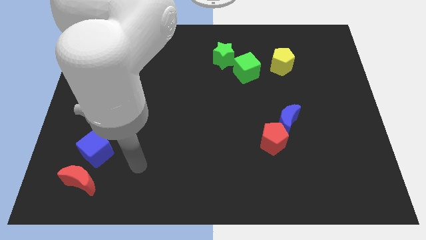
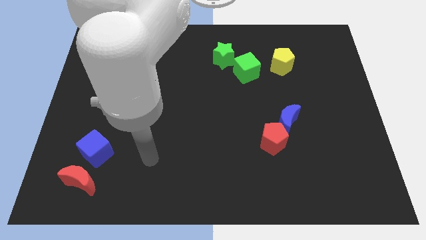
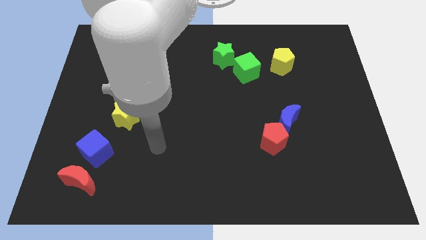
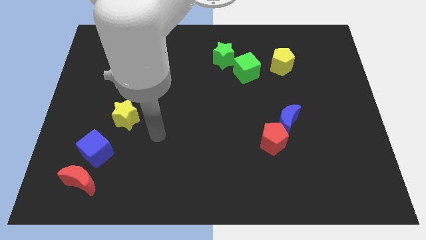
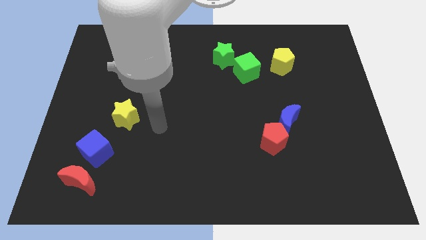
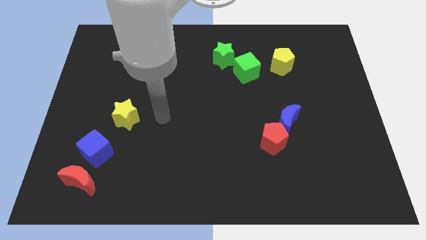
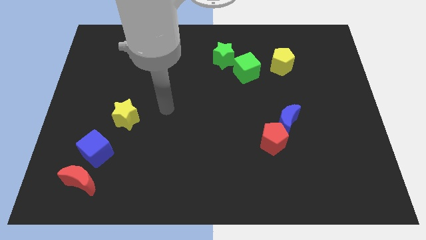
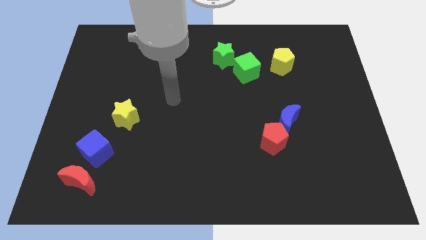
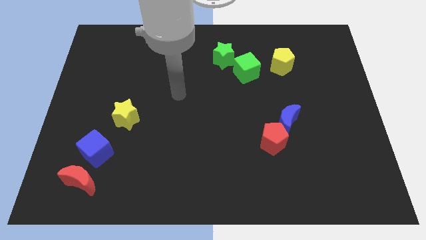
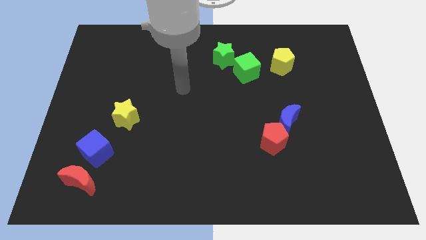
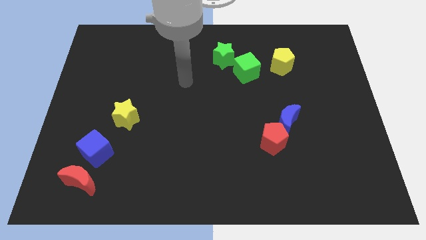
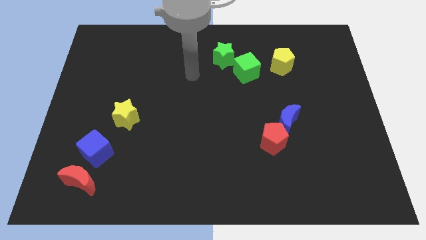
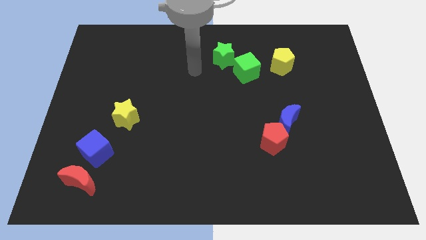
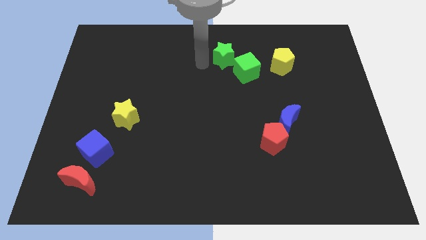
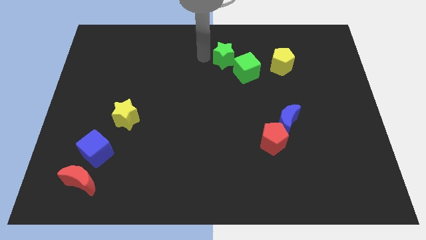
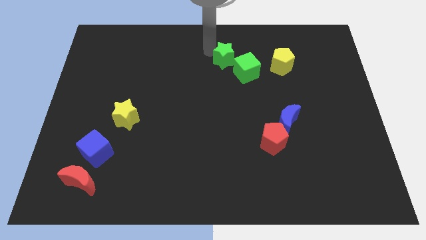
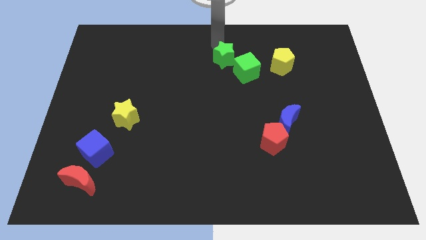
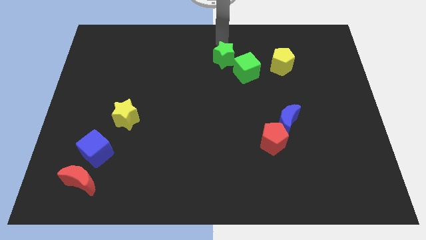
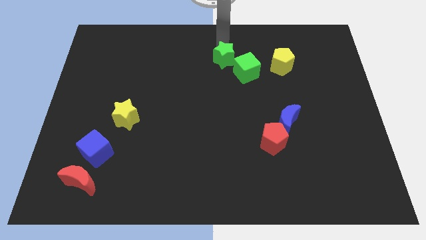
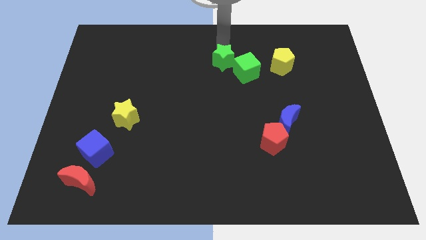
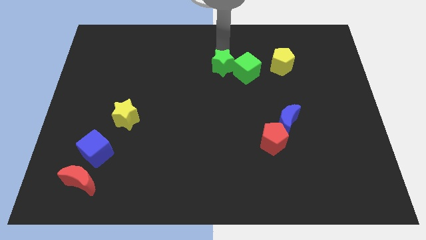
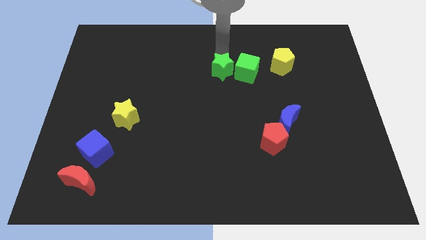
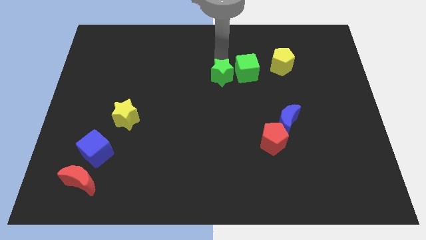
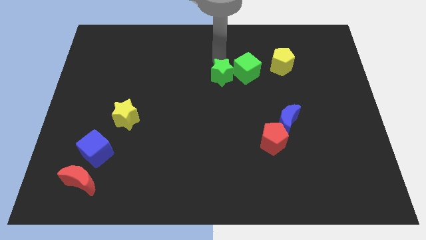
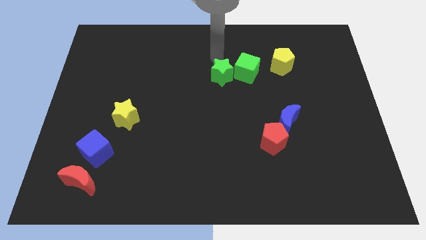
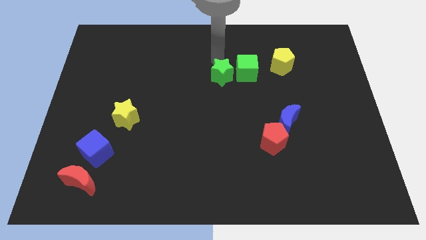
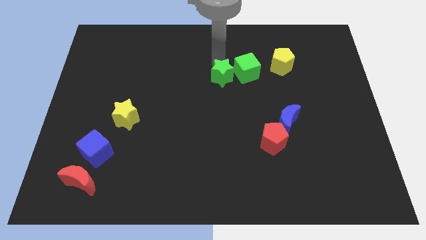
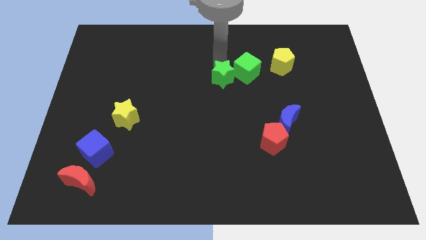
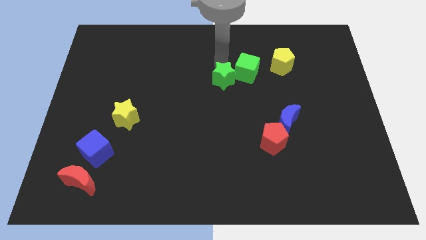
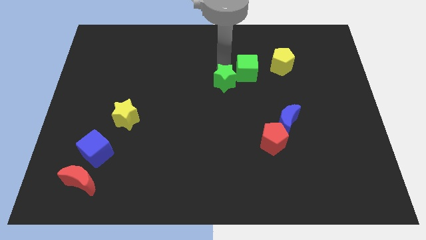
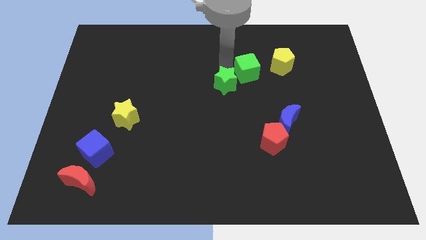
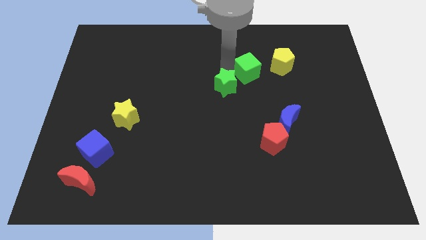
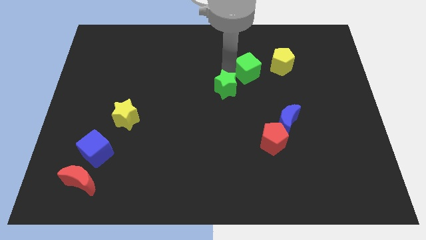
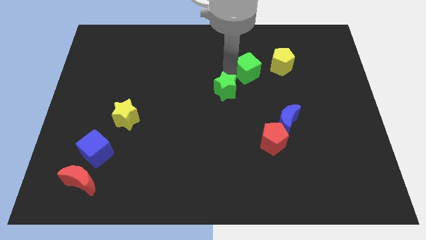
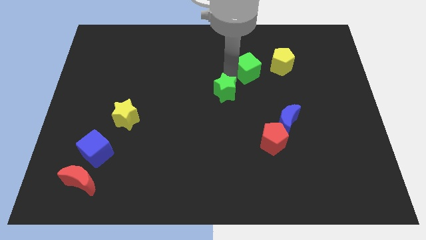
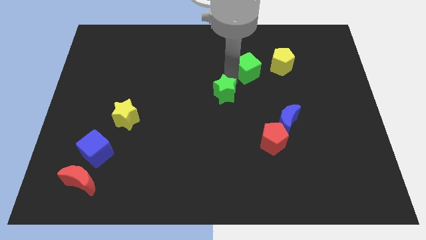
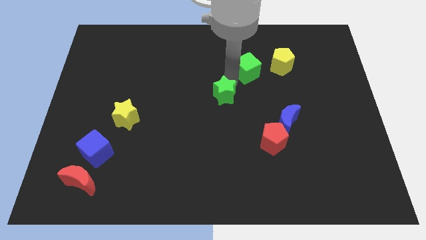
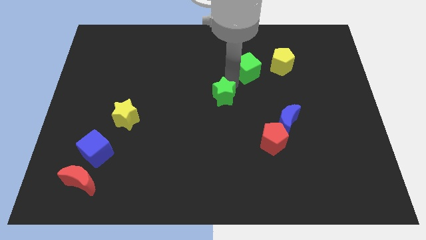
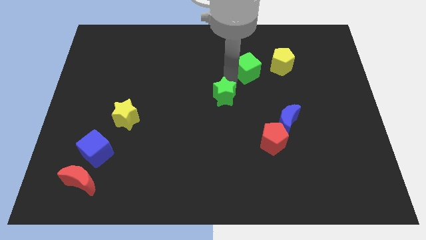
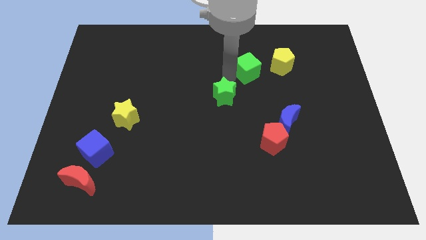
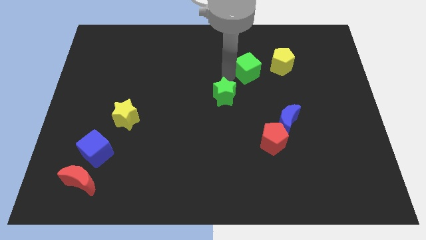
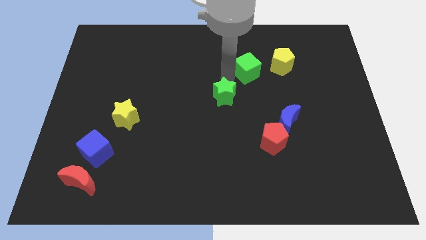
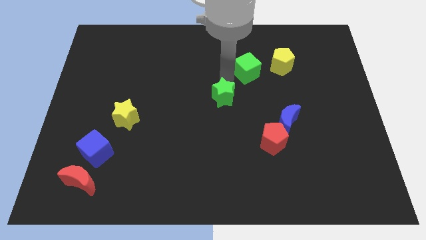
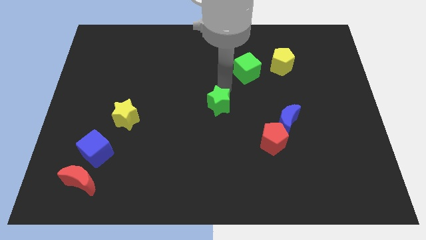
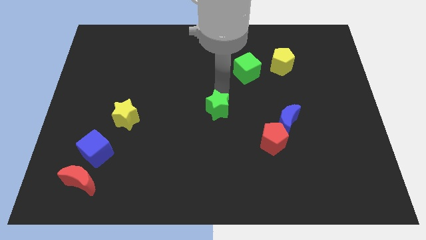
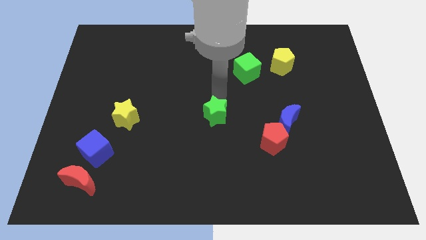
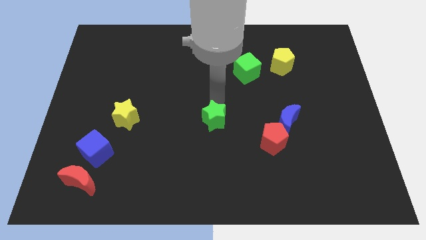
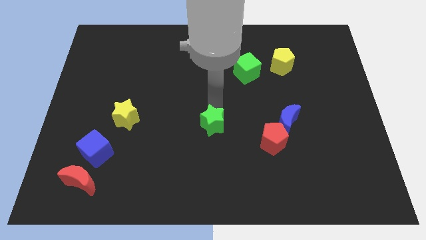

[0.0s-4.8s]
push the green star down

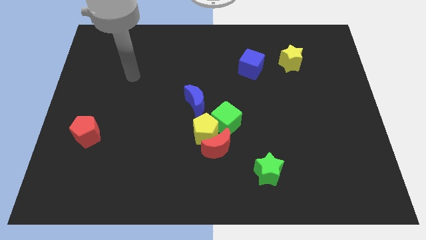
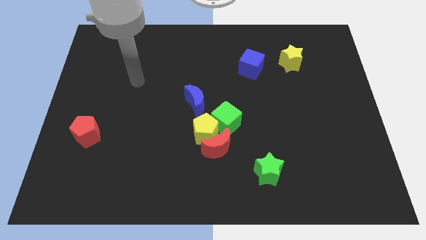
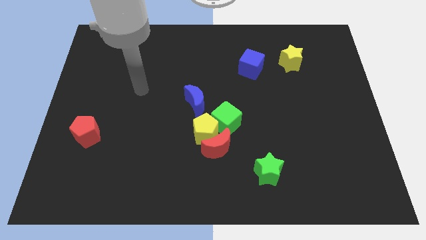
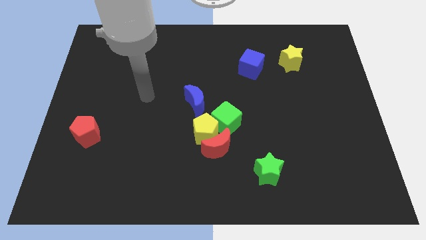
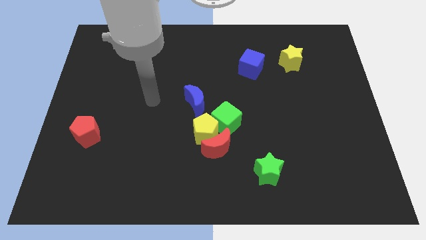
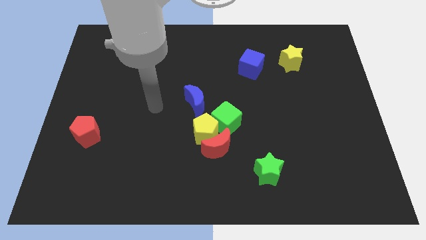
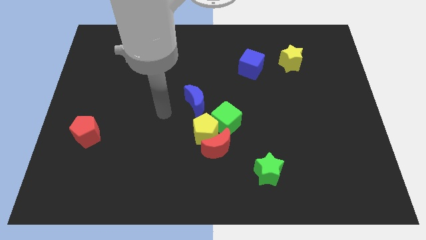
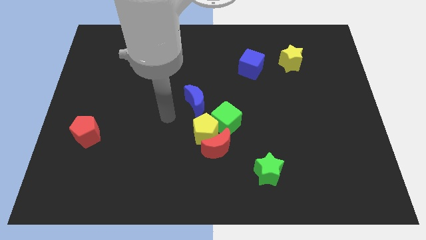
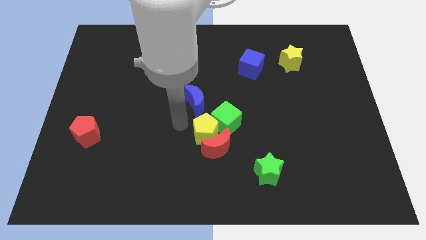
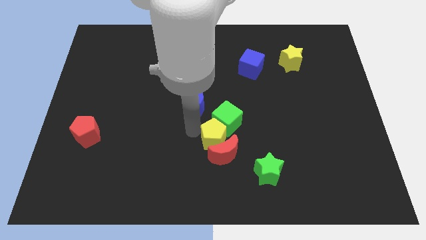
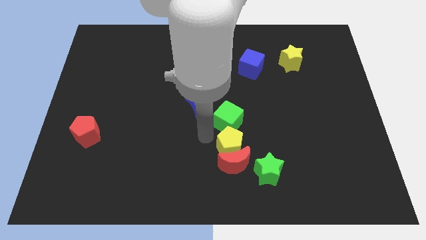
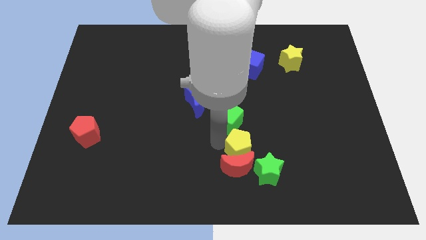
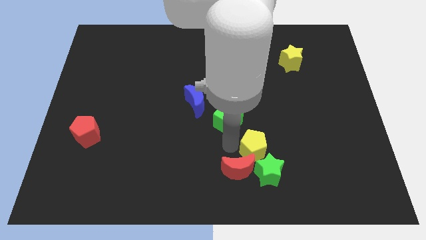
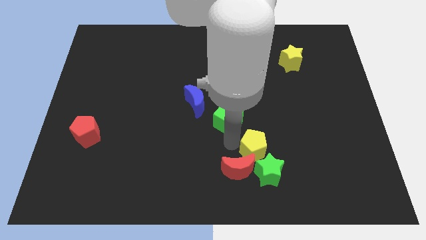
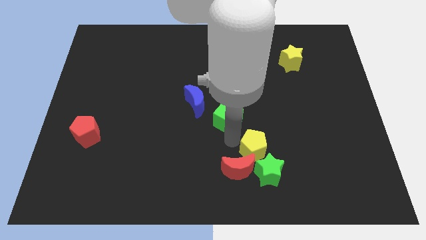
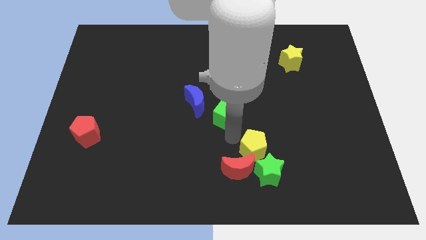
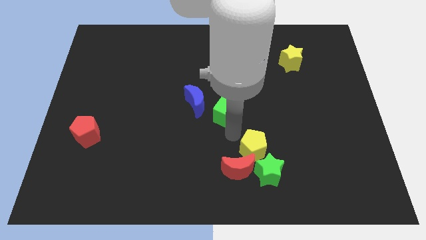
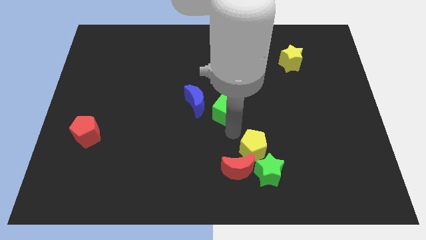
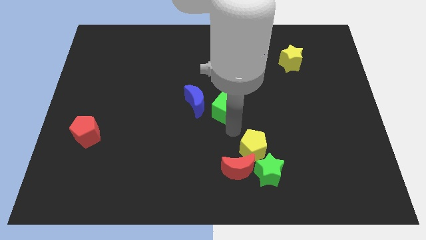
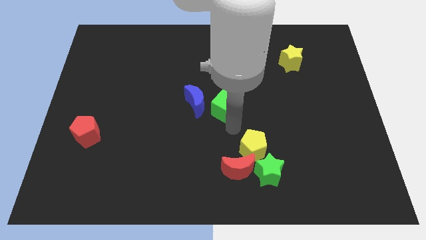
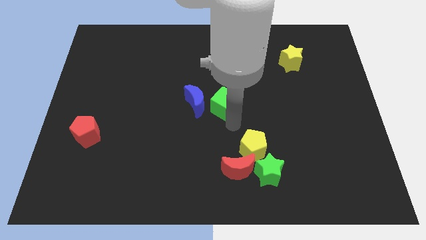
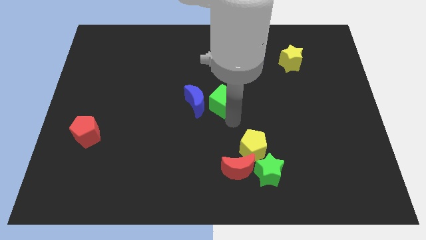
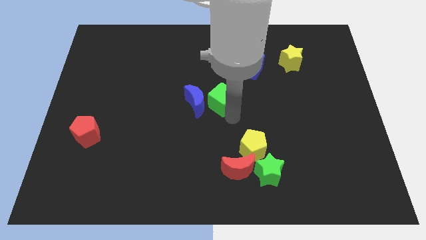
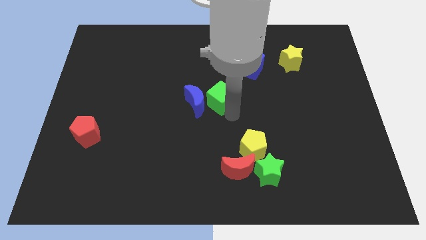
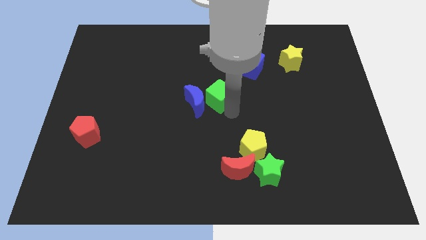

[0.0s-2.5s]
slightly move the green cube upwards

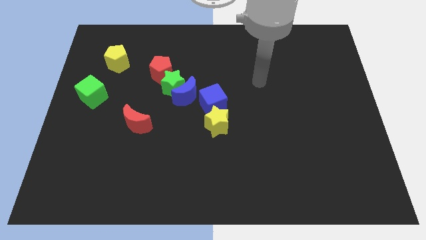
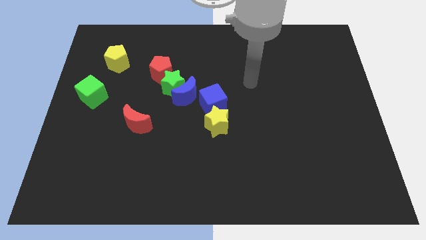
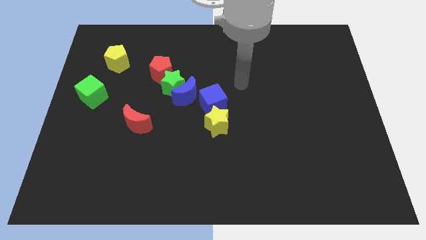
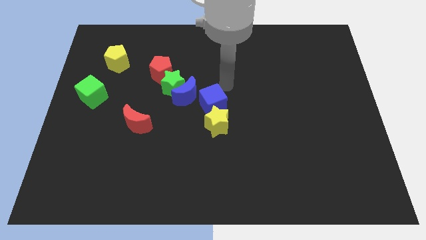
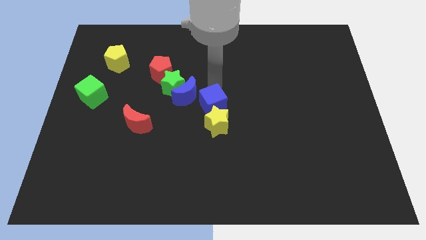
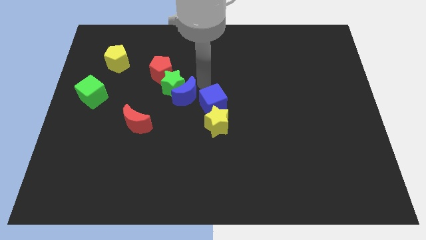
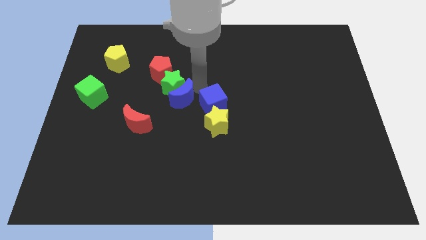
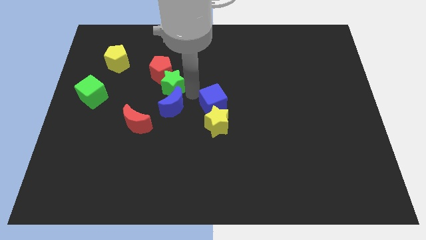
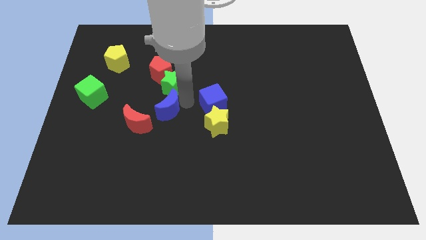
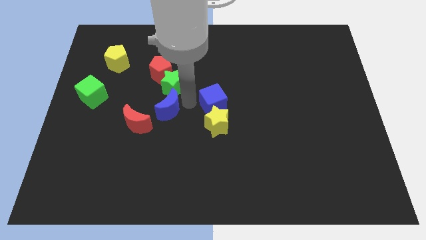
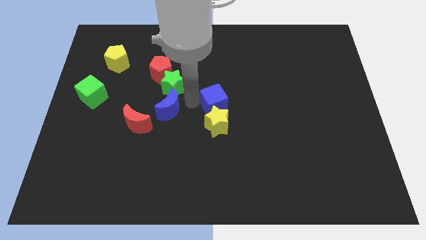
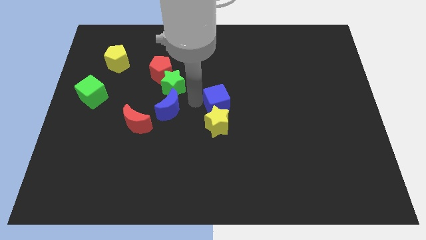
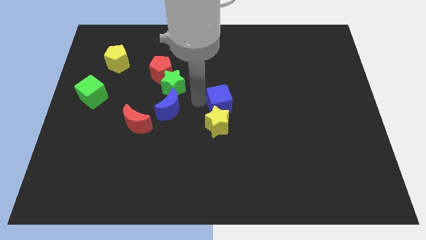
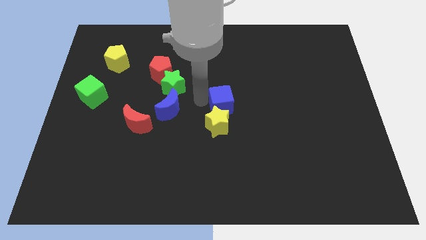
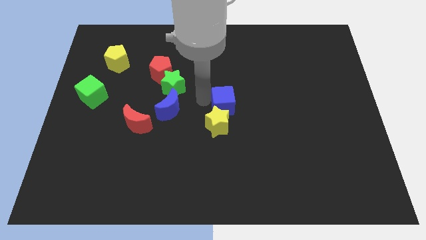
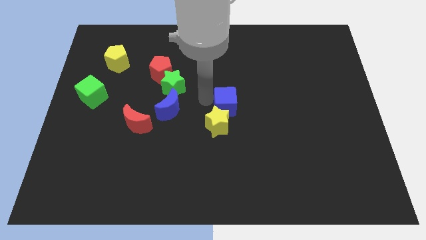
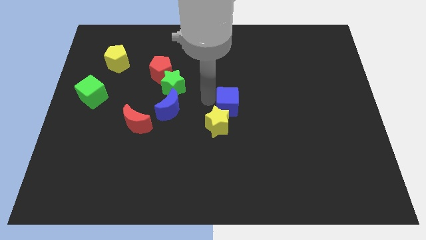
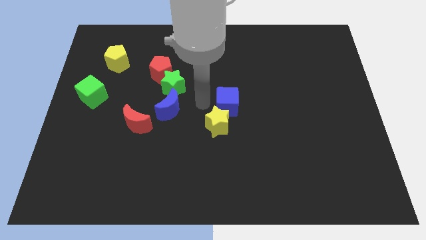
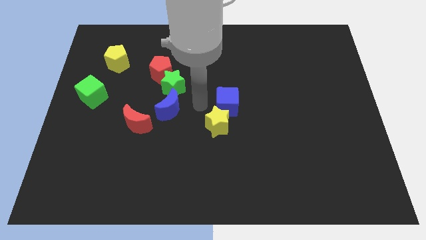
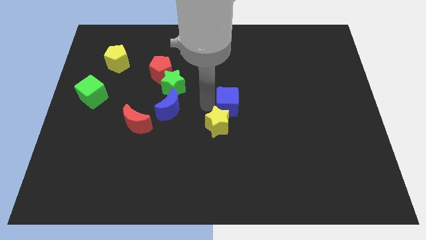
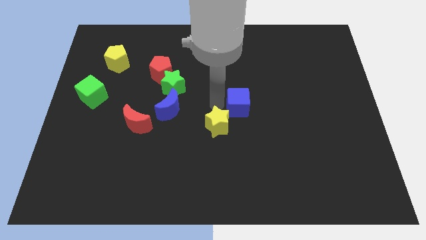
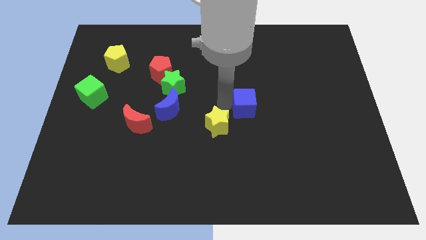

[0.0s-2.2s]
slide the blue cube slightly to the right
